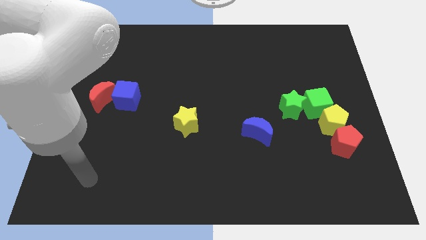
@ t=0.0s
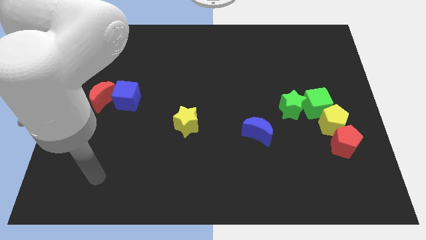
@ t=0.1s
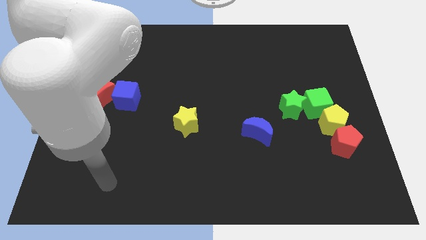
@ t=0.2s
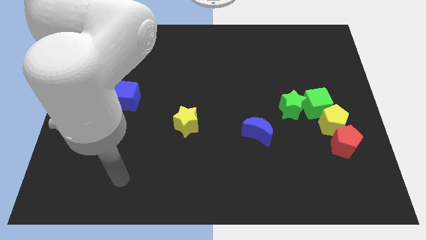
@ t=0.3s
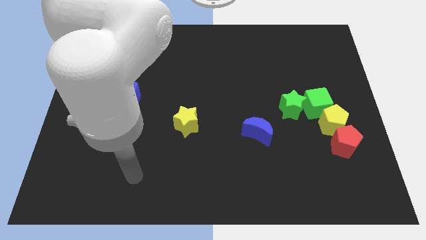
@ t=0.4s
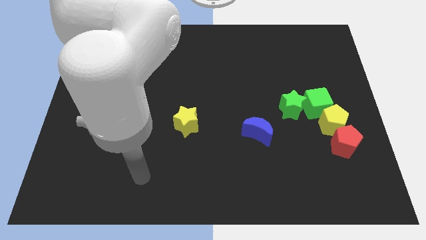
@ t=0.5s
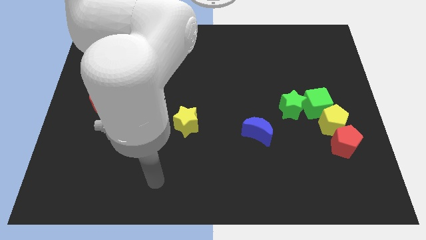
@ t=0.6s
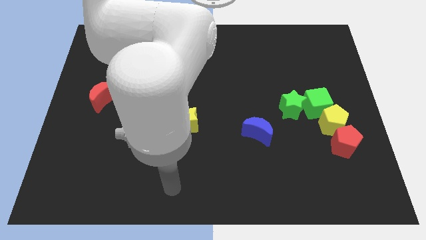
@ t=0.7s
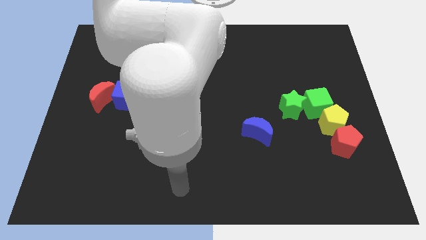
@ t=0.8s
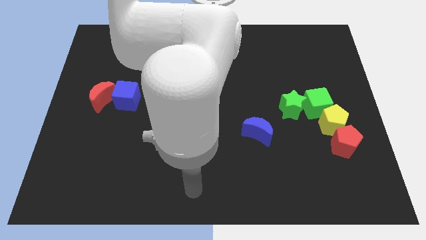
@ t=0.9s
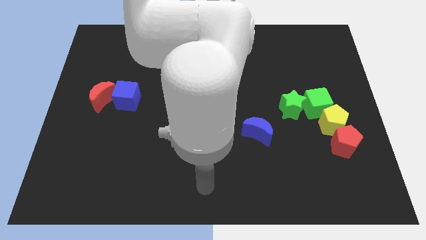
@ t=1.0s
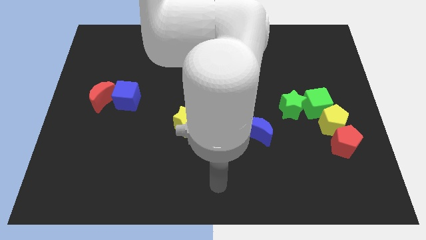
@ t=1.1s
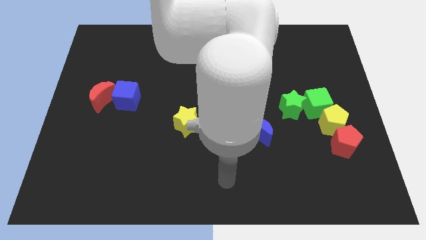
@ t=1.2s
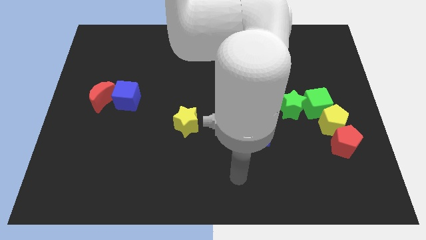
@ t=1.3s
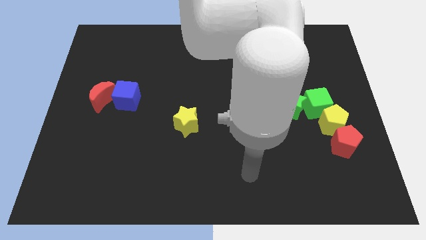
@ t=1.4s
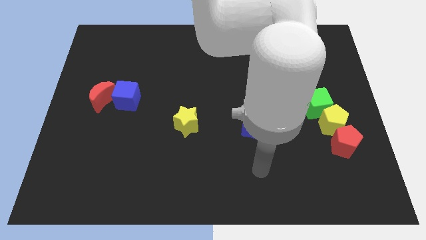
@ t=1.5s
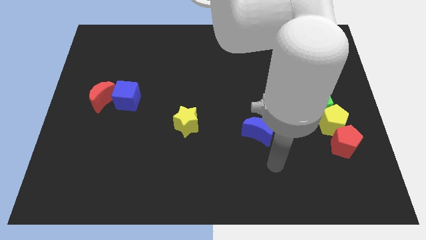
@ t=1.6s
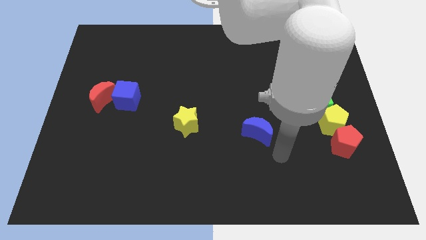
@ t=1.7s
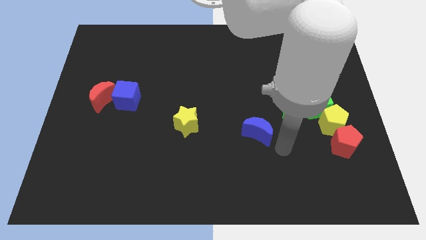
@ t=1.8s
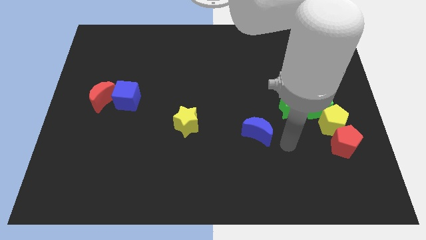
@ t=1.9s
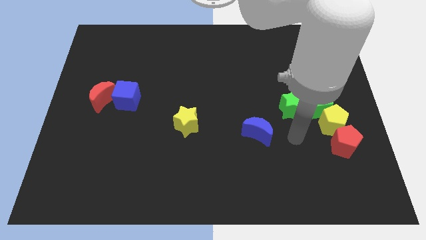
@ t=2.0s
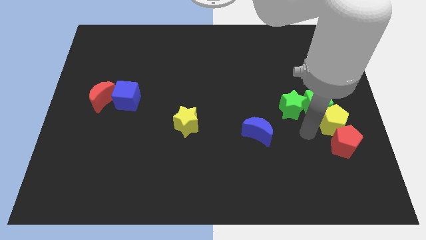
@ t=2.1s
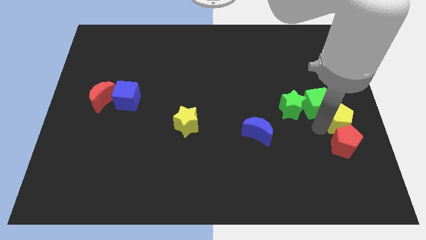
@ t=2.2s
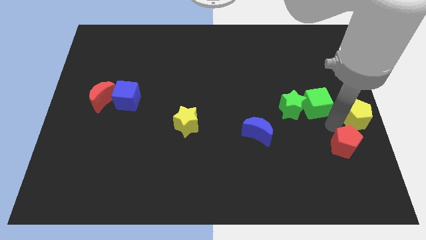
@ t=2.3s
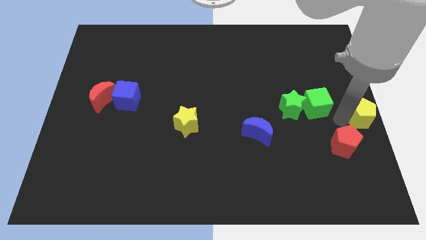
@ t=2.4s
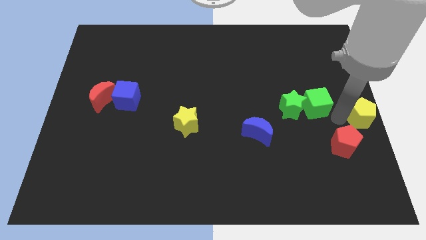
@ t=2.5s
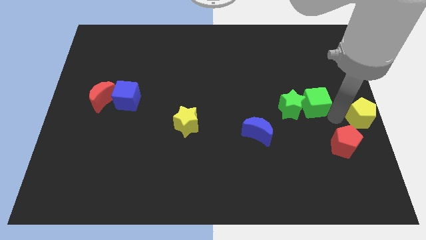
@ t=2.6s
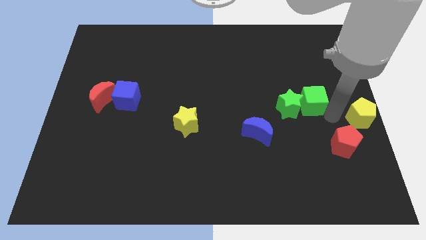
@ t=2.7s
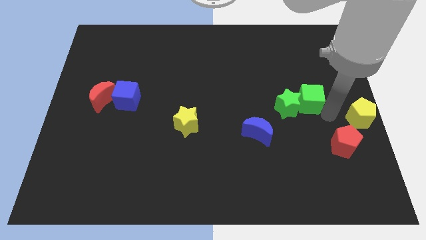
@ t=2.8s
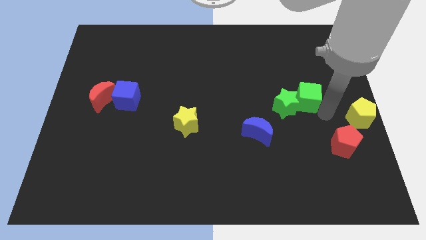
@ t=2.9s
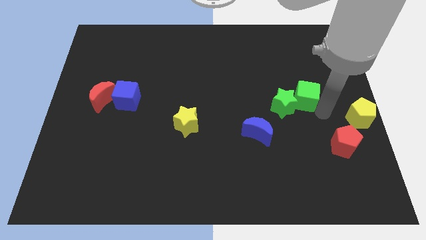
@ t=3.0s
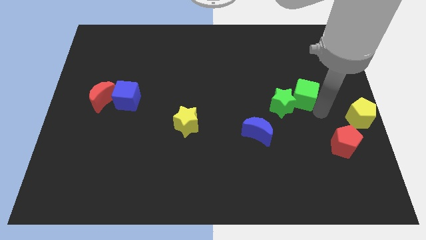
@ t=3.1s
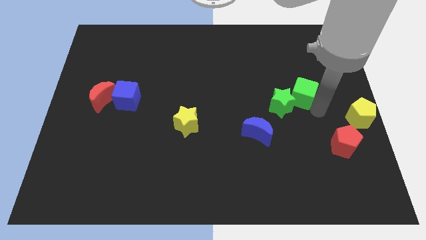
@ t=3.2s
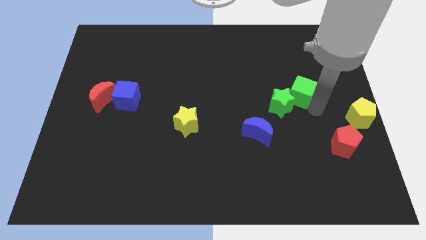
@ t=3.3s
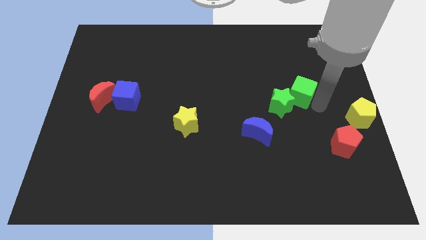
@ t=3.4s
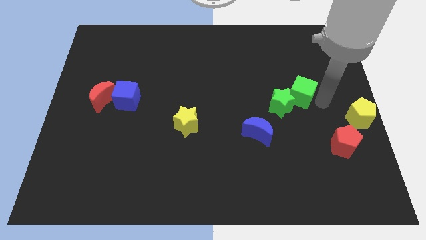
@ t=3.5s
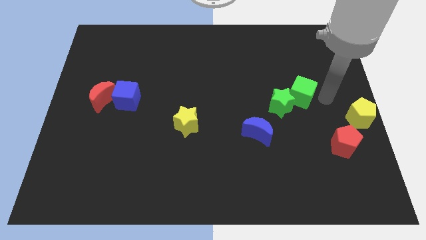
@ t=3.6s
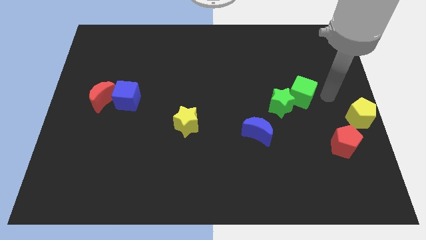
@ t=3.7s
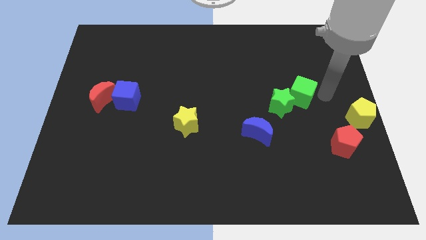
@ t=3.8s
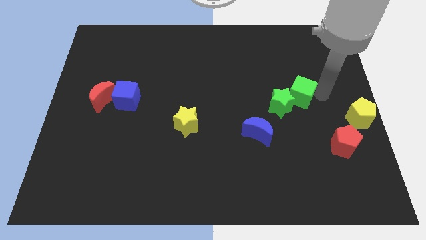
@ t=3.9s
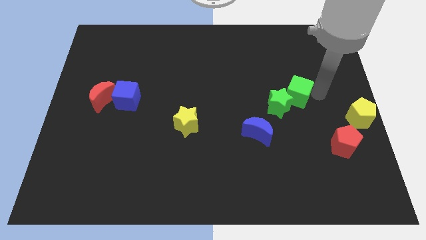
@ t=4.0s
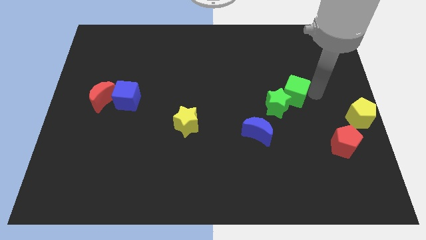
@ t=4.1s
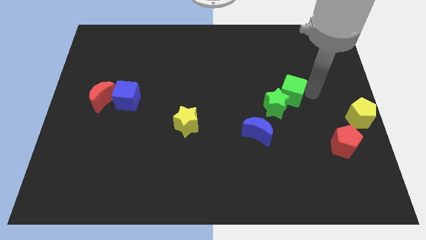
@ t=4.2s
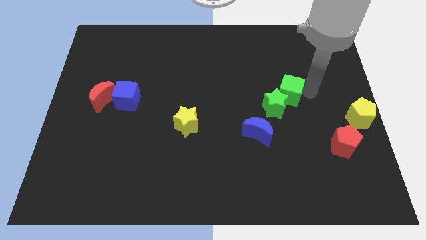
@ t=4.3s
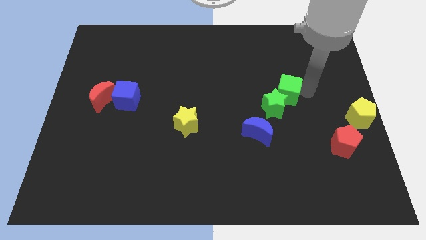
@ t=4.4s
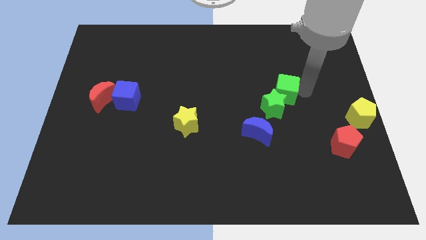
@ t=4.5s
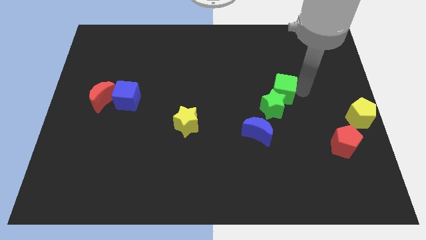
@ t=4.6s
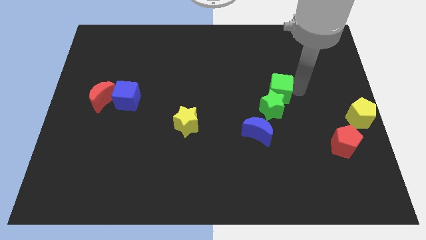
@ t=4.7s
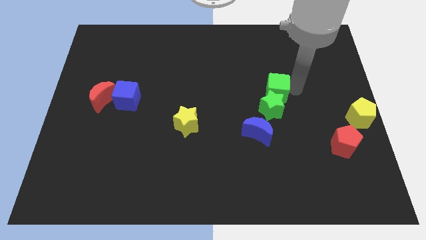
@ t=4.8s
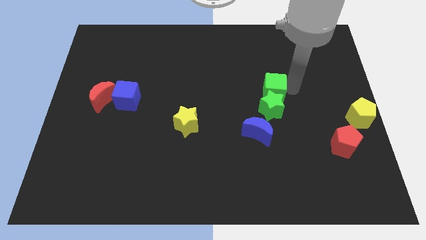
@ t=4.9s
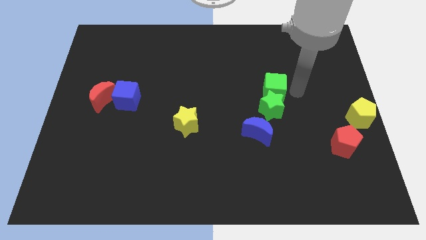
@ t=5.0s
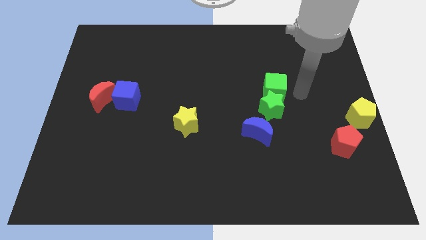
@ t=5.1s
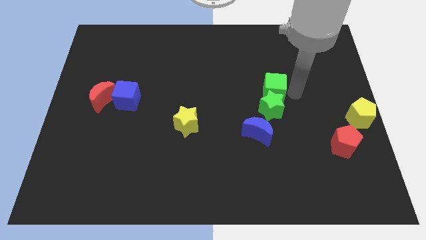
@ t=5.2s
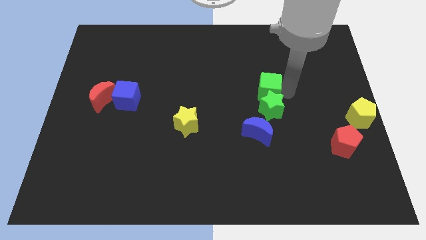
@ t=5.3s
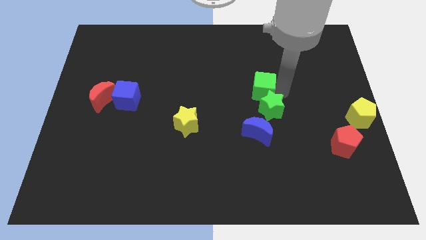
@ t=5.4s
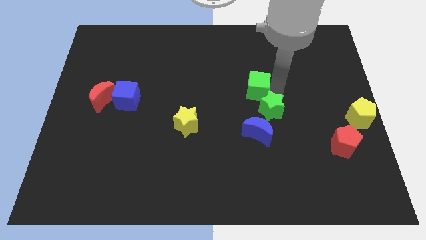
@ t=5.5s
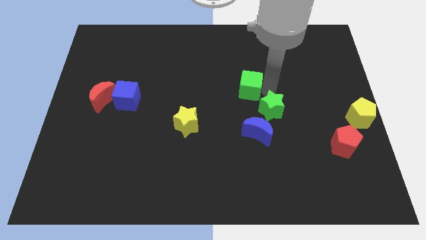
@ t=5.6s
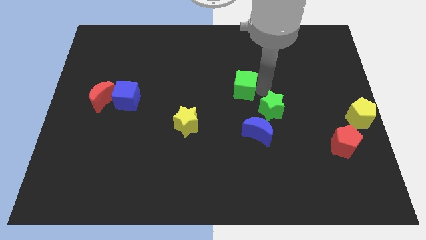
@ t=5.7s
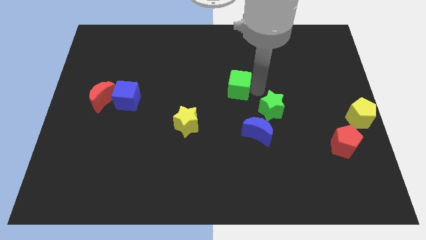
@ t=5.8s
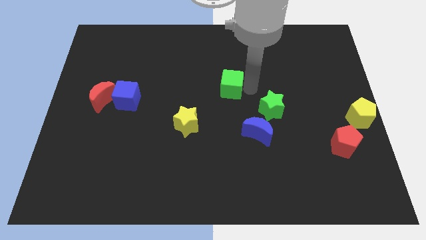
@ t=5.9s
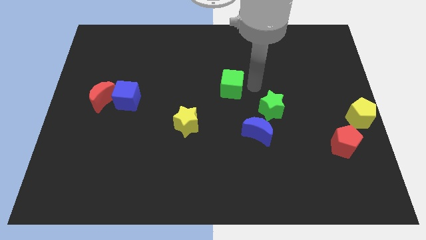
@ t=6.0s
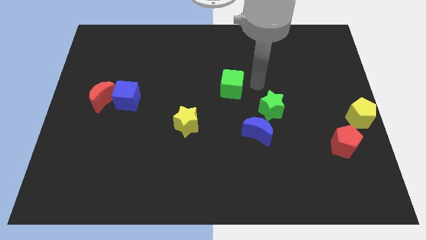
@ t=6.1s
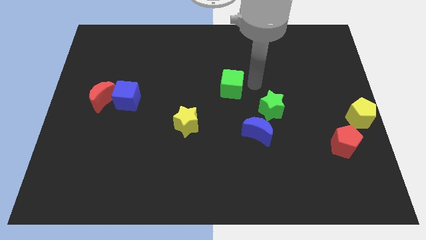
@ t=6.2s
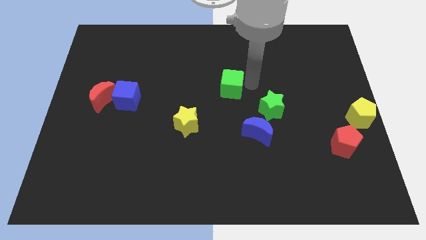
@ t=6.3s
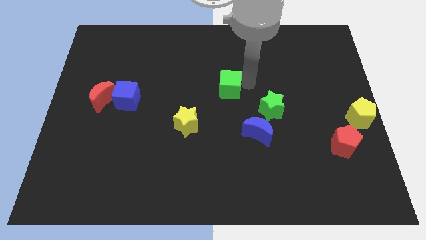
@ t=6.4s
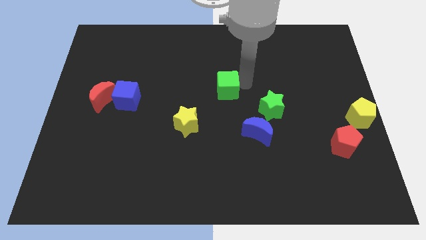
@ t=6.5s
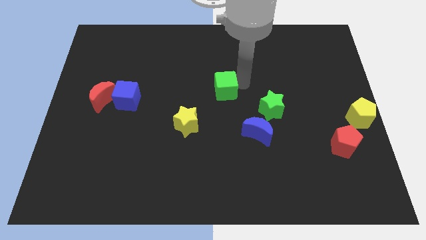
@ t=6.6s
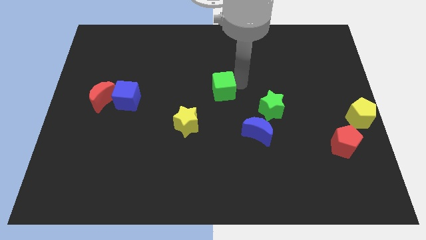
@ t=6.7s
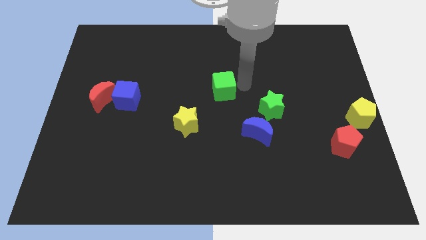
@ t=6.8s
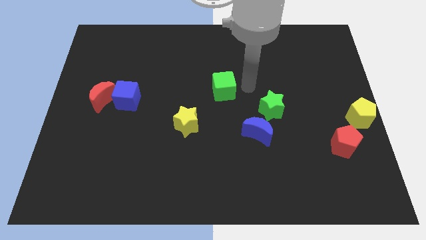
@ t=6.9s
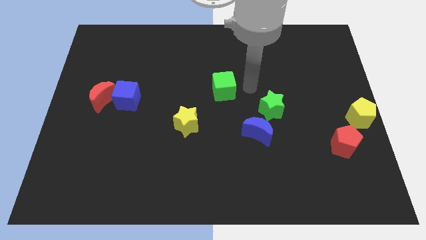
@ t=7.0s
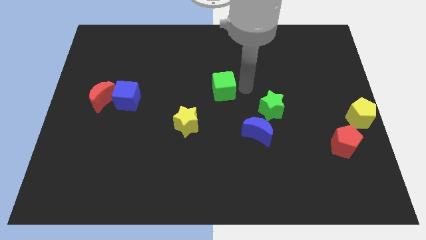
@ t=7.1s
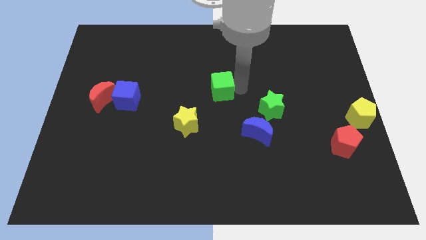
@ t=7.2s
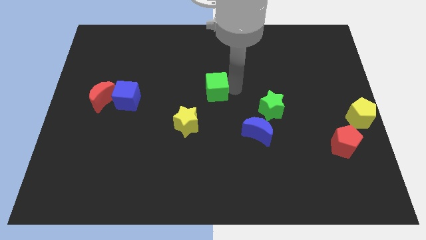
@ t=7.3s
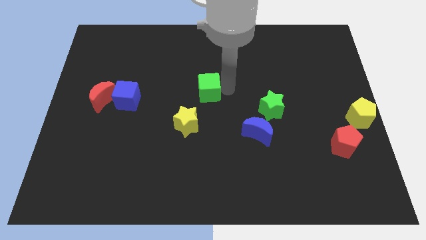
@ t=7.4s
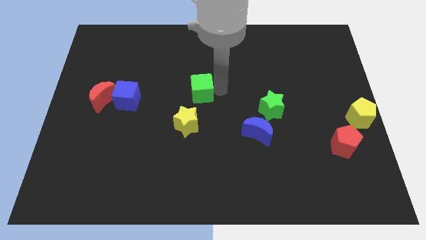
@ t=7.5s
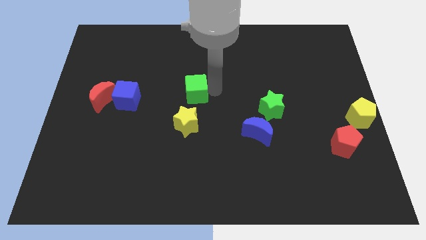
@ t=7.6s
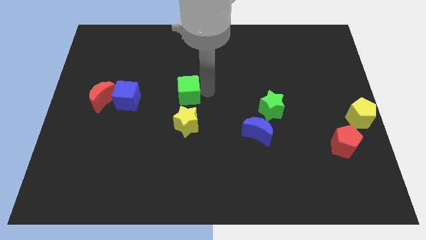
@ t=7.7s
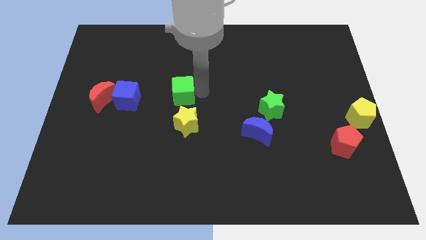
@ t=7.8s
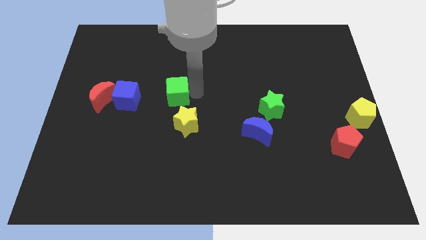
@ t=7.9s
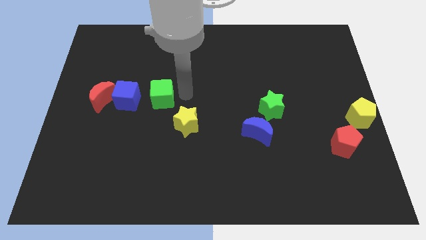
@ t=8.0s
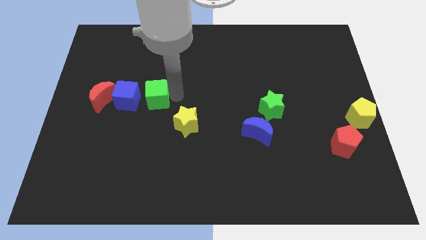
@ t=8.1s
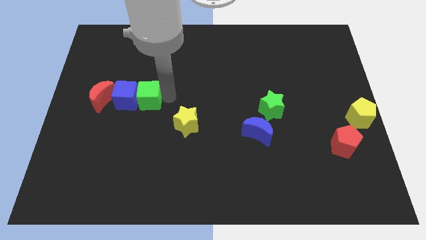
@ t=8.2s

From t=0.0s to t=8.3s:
slide the green cube next to the blue cube
